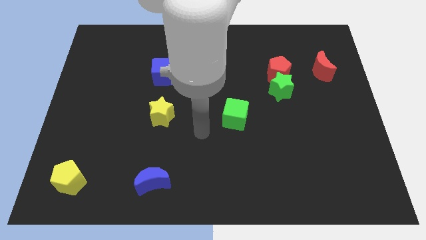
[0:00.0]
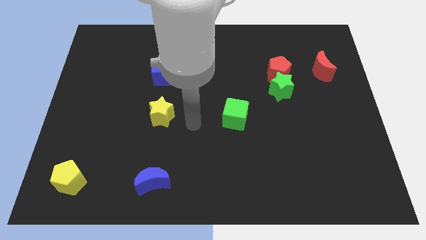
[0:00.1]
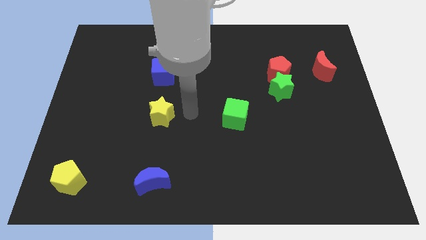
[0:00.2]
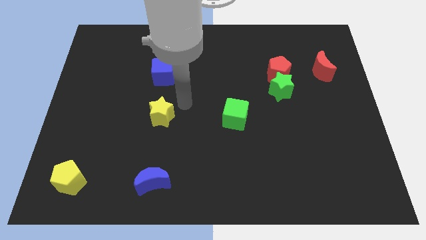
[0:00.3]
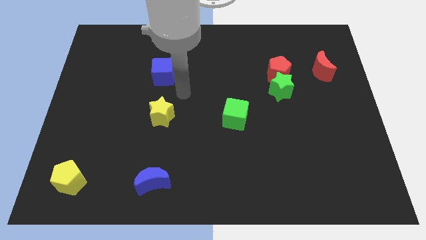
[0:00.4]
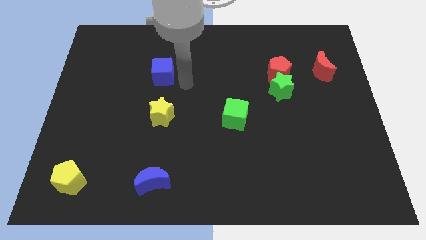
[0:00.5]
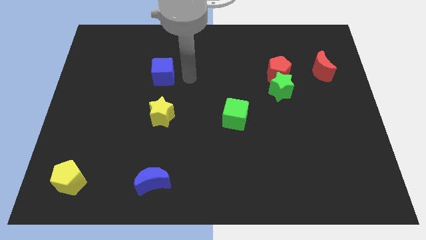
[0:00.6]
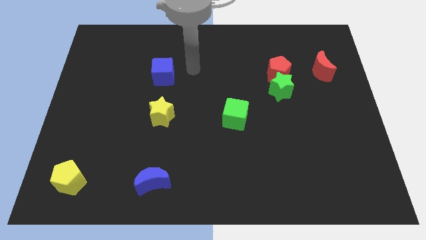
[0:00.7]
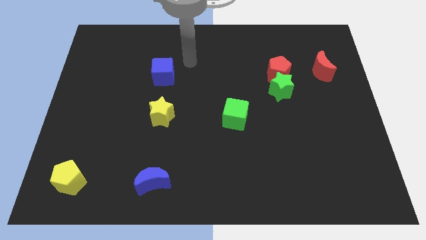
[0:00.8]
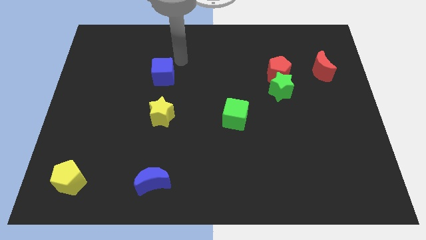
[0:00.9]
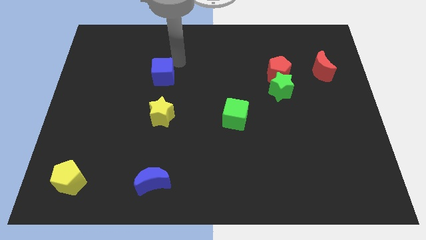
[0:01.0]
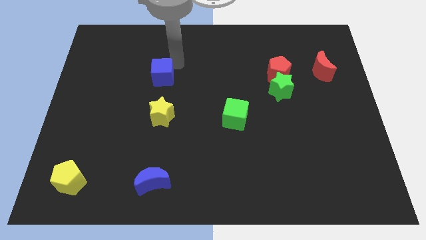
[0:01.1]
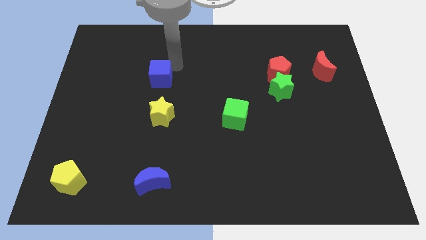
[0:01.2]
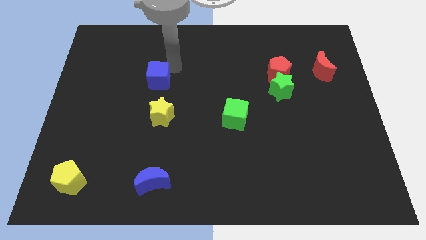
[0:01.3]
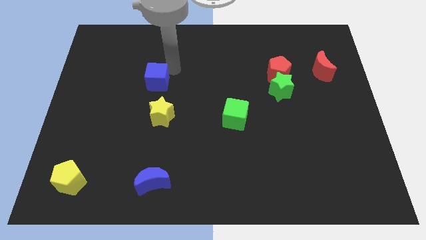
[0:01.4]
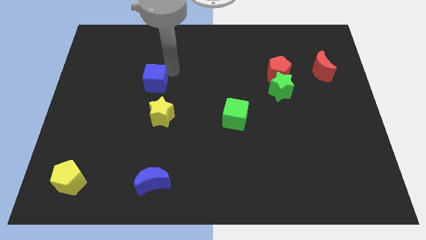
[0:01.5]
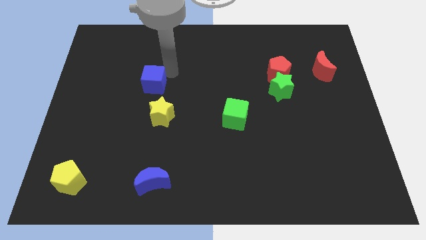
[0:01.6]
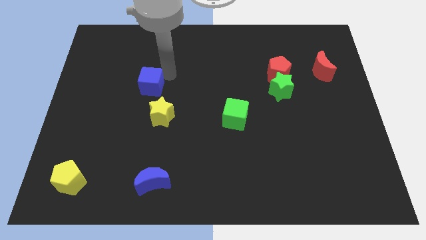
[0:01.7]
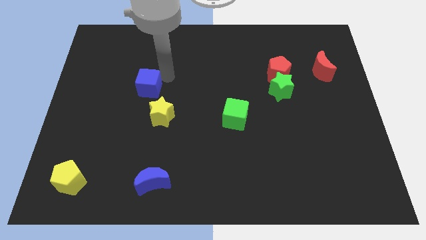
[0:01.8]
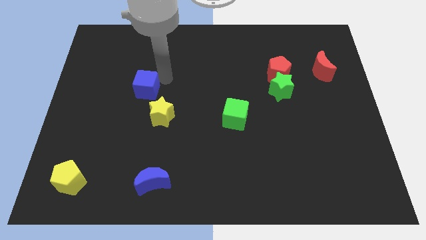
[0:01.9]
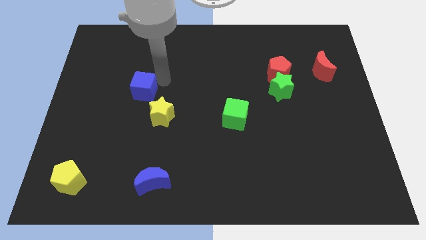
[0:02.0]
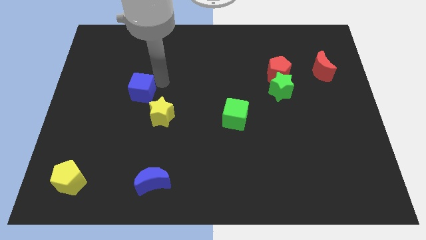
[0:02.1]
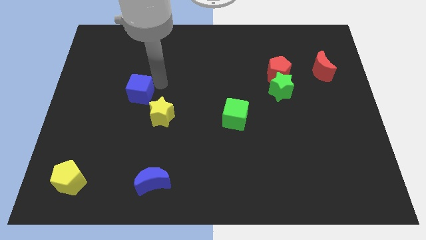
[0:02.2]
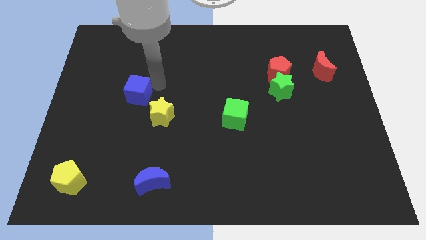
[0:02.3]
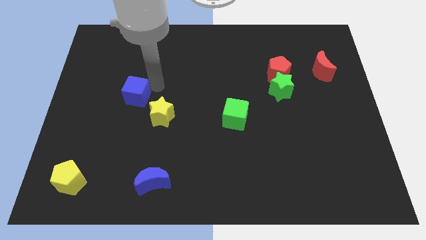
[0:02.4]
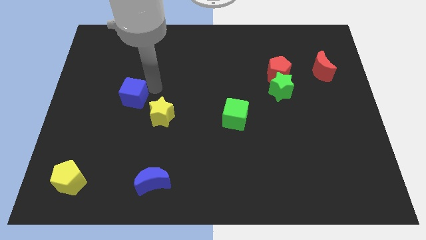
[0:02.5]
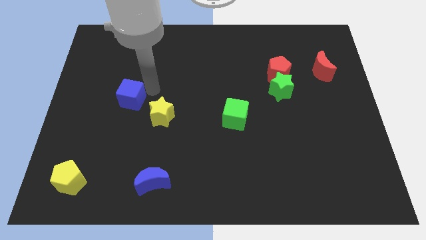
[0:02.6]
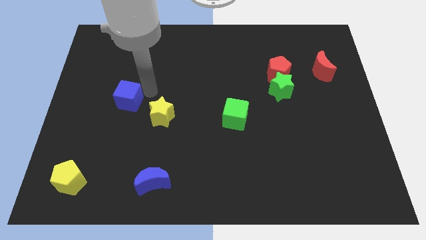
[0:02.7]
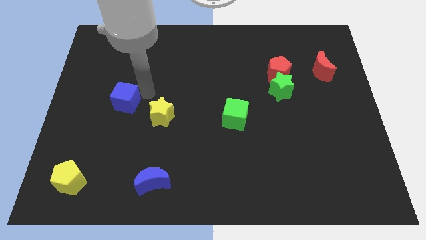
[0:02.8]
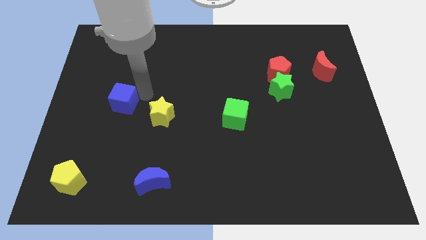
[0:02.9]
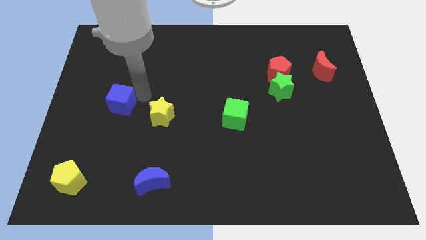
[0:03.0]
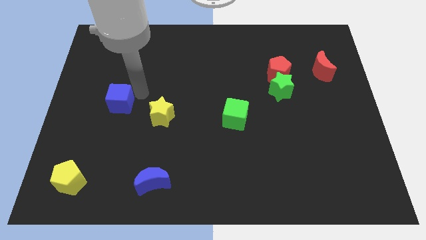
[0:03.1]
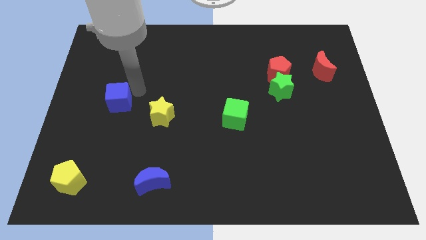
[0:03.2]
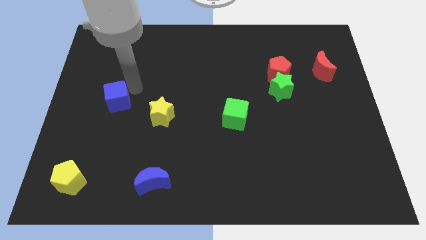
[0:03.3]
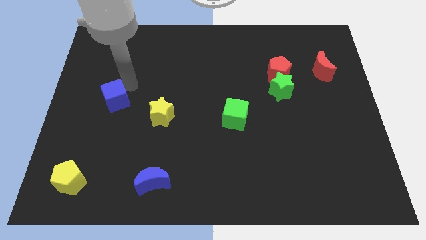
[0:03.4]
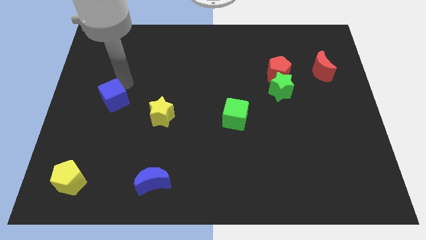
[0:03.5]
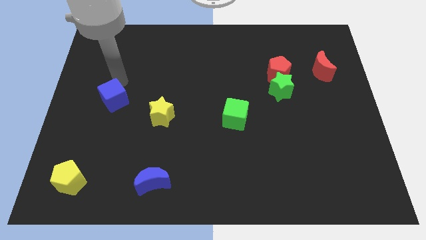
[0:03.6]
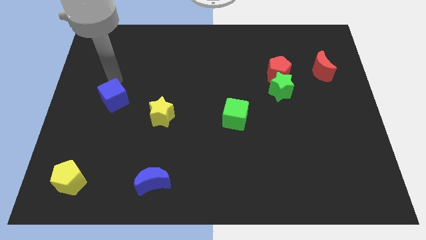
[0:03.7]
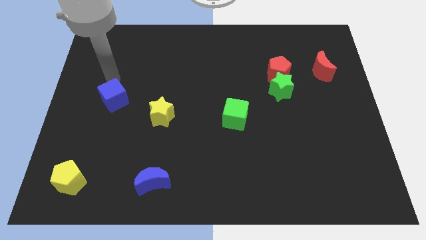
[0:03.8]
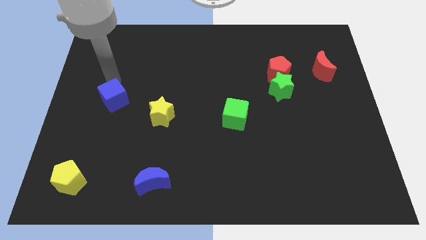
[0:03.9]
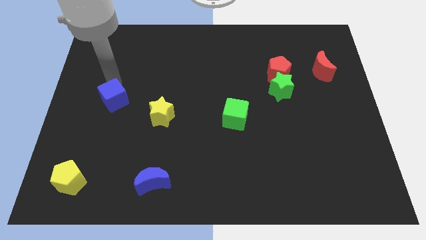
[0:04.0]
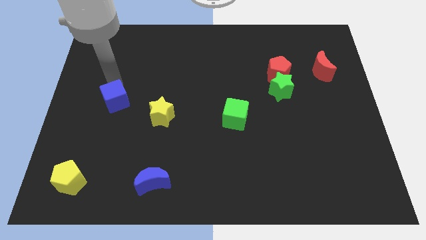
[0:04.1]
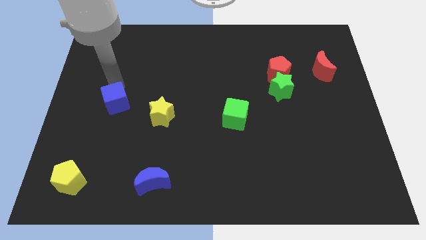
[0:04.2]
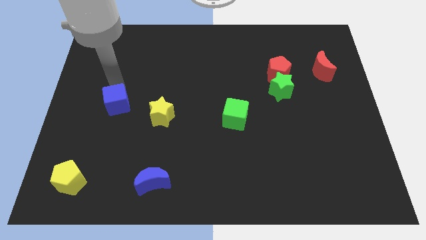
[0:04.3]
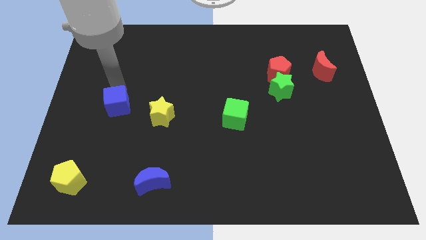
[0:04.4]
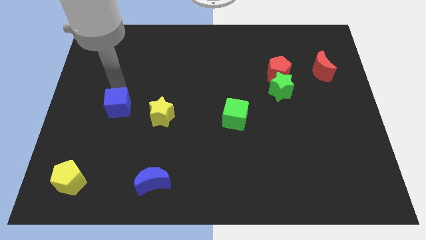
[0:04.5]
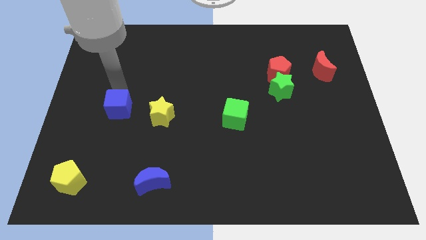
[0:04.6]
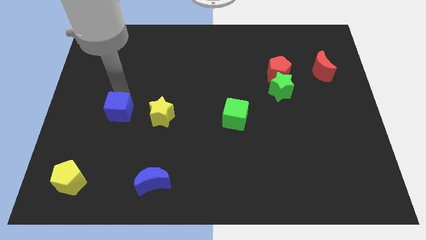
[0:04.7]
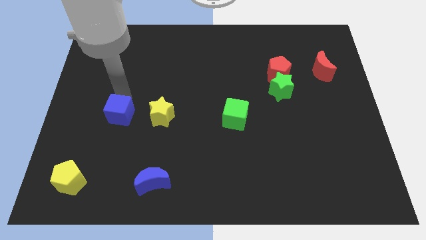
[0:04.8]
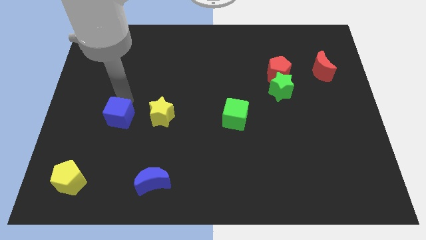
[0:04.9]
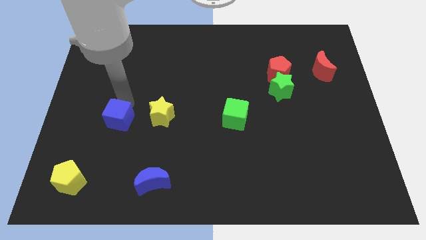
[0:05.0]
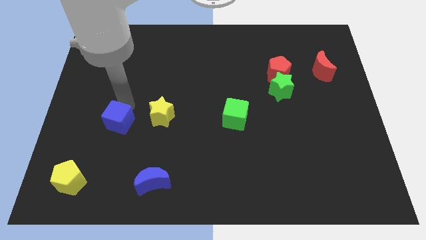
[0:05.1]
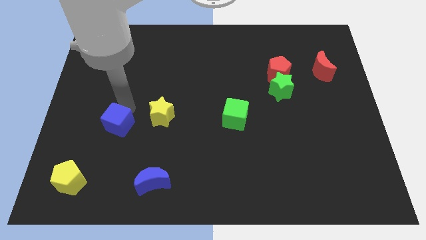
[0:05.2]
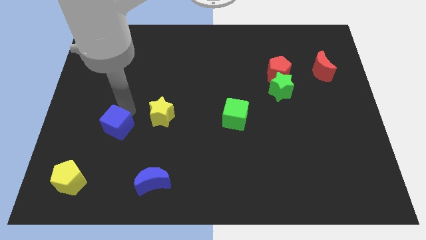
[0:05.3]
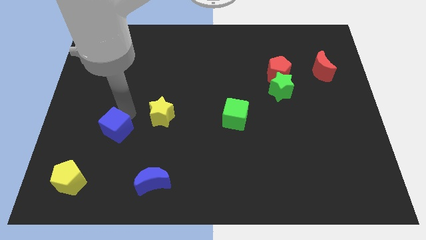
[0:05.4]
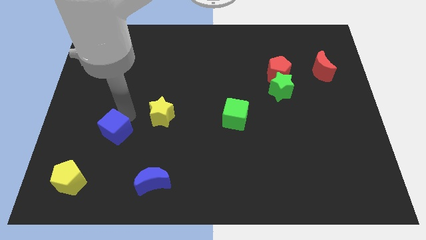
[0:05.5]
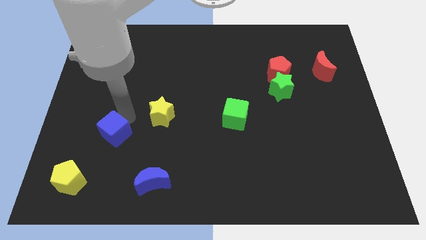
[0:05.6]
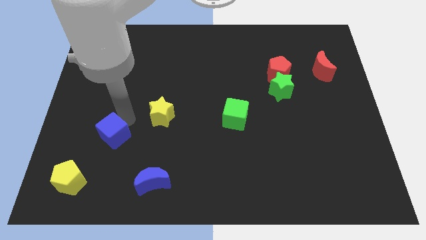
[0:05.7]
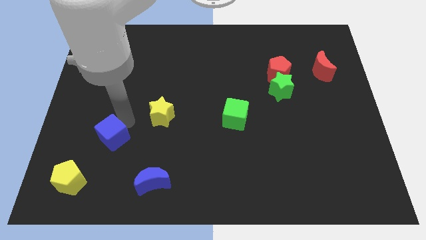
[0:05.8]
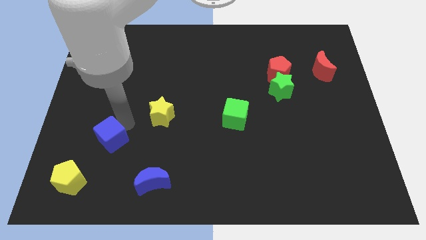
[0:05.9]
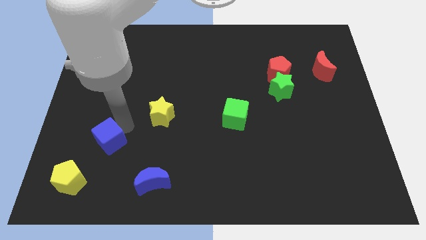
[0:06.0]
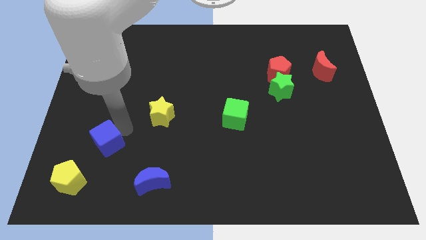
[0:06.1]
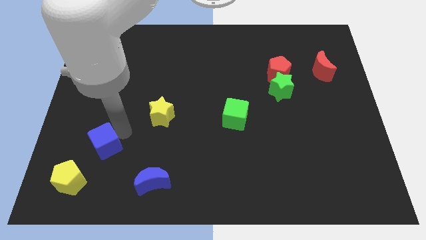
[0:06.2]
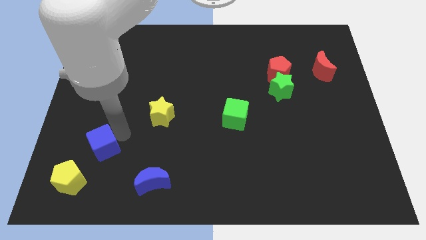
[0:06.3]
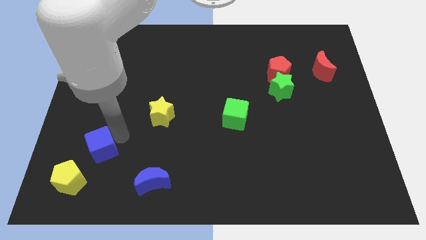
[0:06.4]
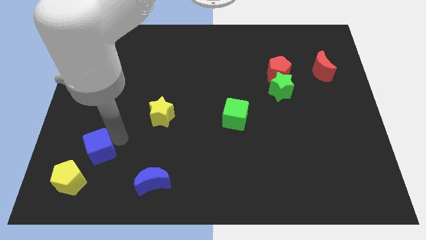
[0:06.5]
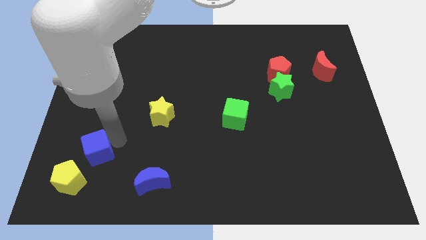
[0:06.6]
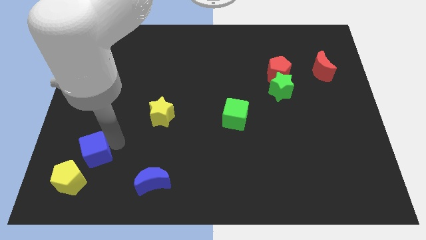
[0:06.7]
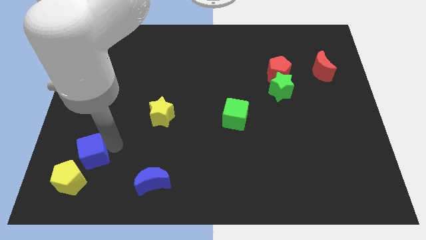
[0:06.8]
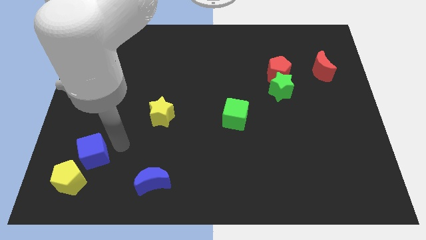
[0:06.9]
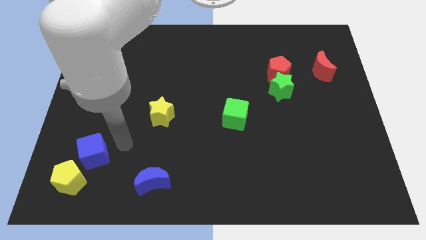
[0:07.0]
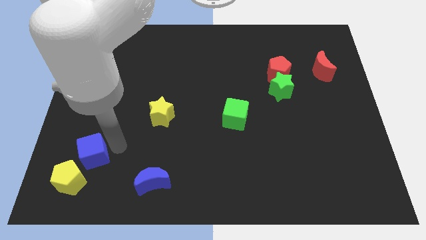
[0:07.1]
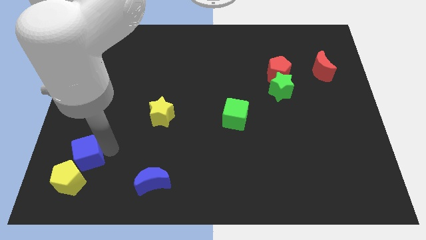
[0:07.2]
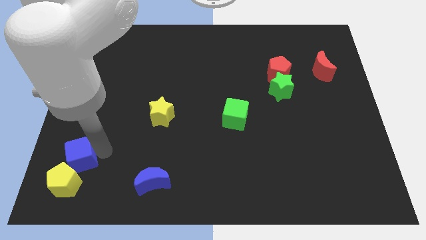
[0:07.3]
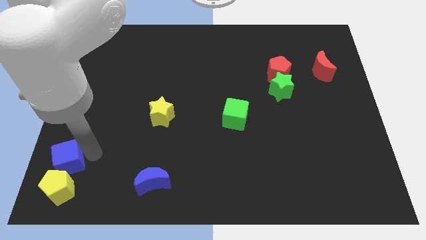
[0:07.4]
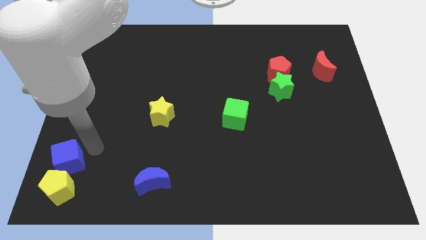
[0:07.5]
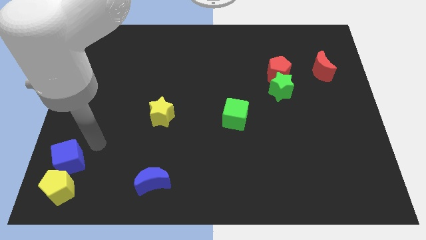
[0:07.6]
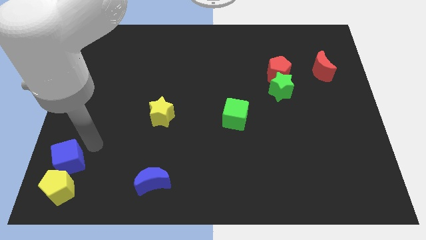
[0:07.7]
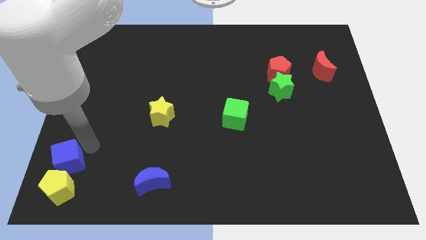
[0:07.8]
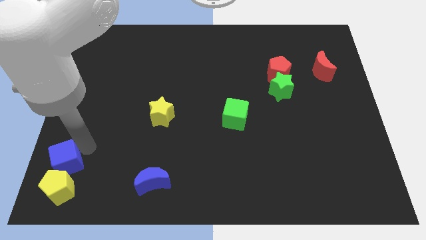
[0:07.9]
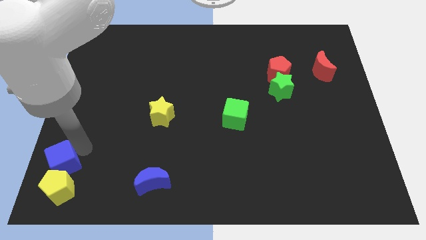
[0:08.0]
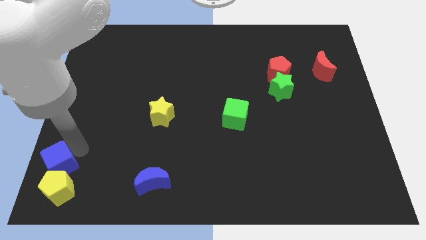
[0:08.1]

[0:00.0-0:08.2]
put the blue cube to the bottom left corner
